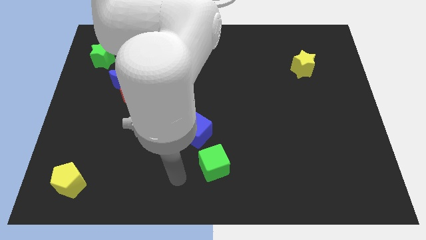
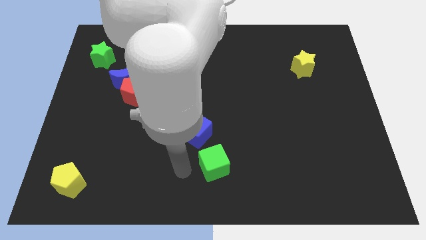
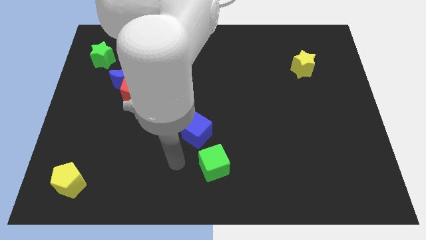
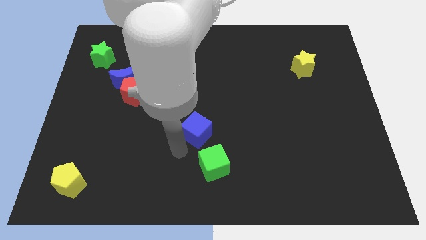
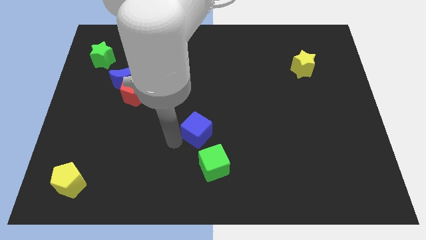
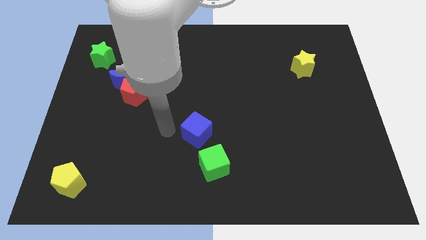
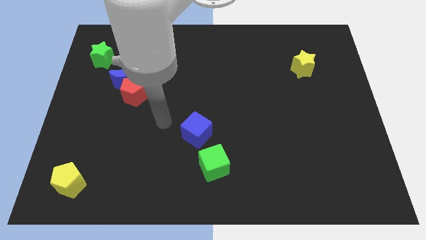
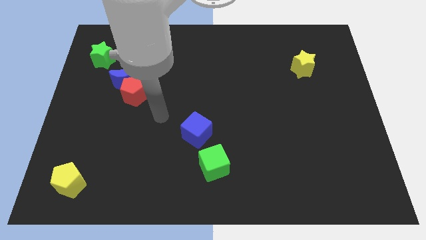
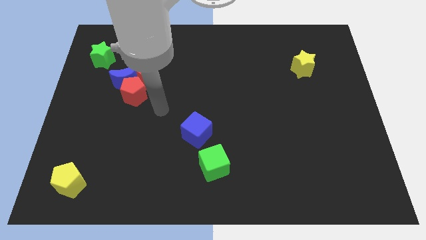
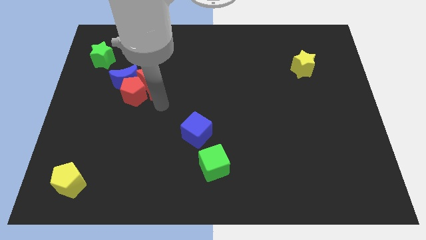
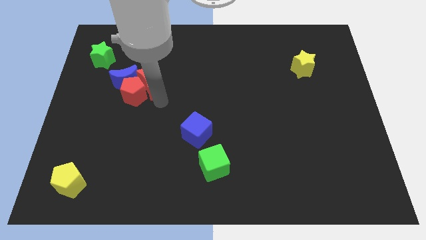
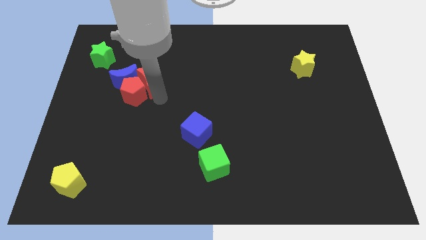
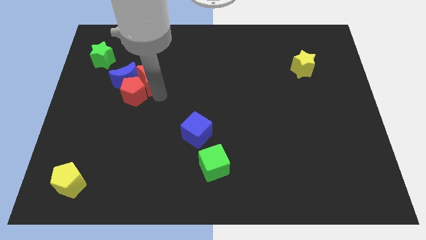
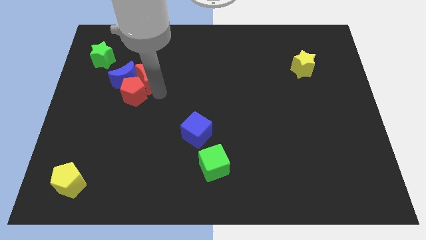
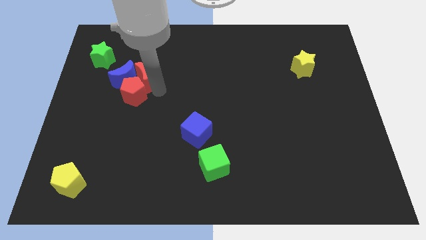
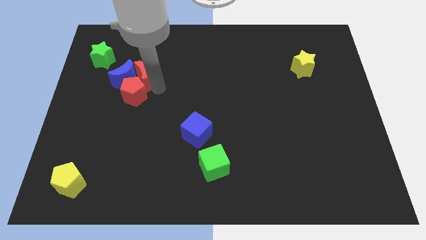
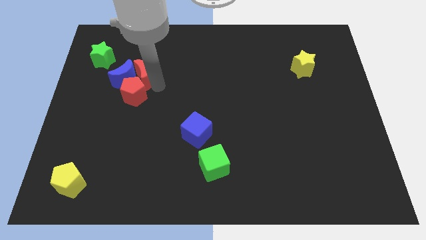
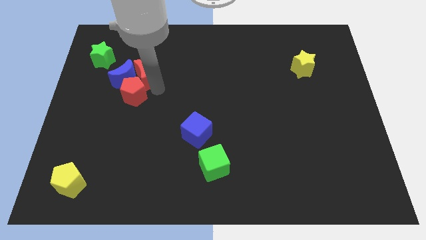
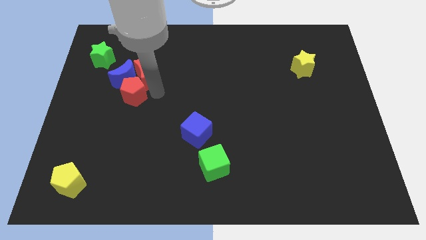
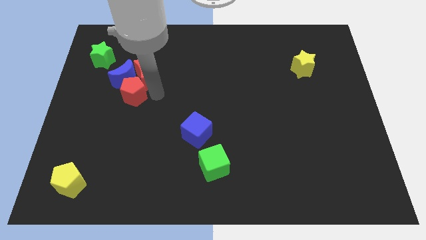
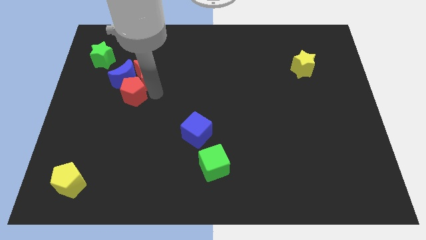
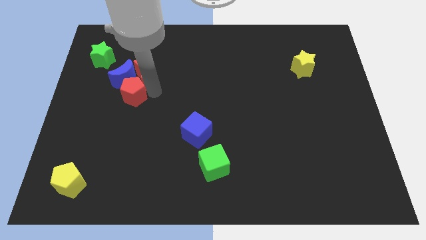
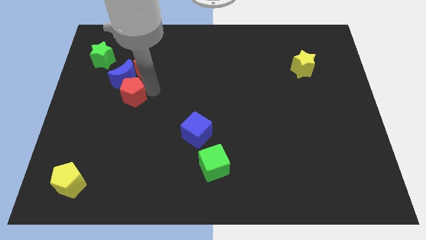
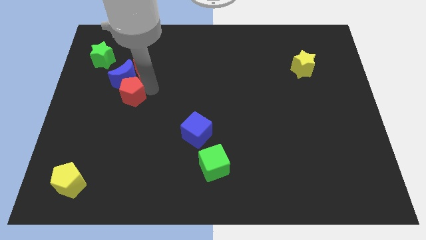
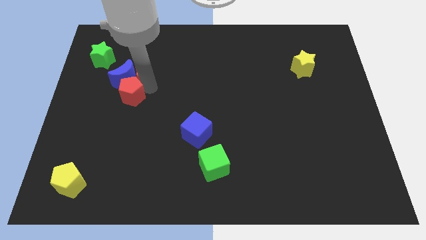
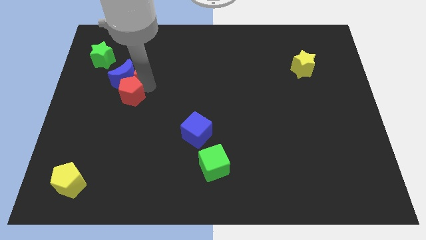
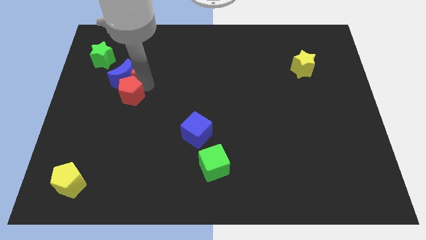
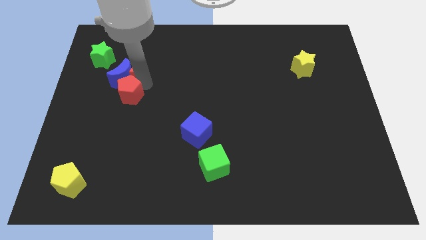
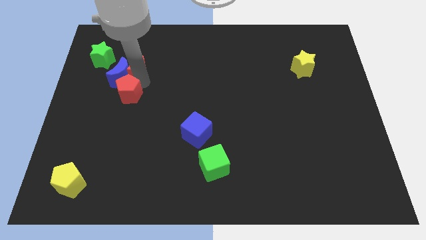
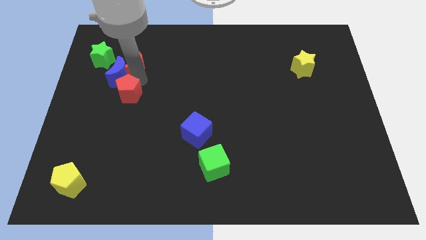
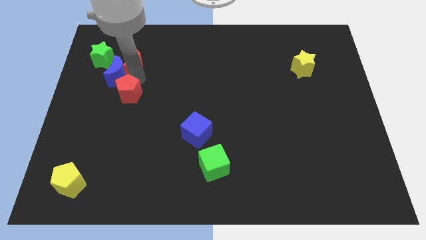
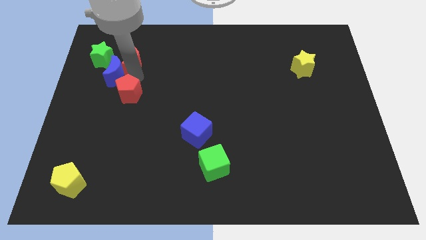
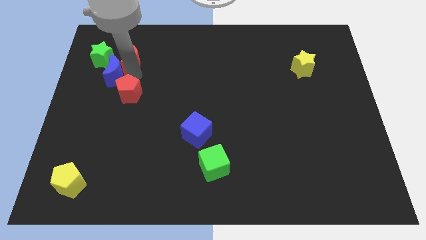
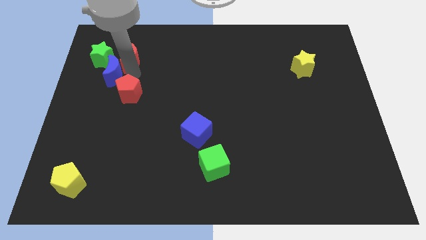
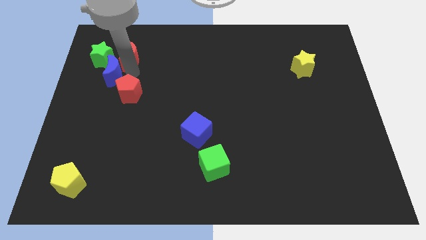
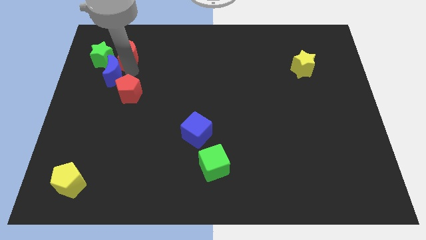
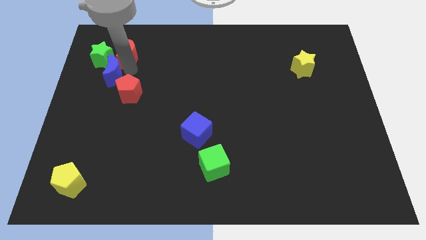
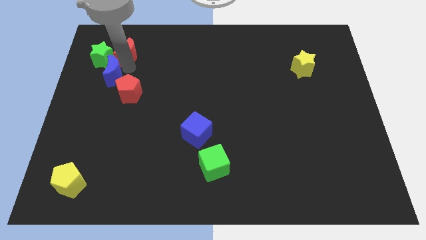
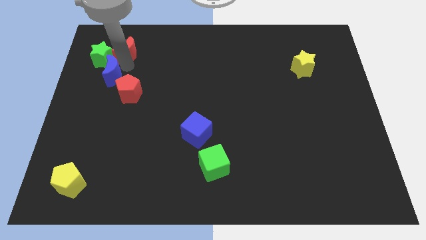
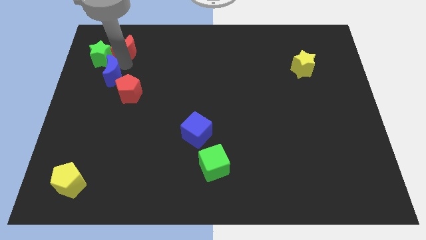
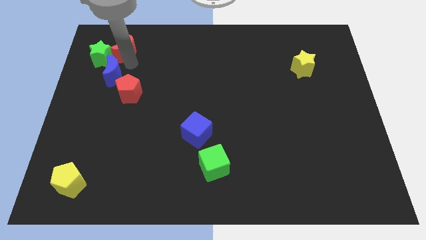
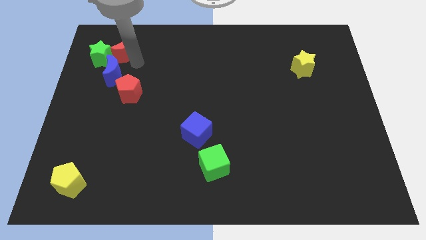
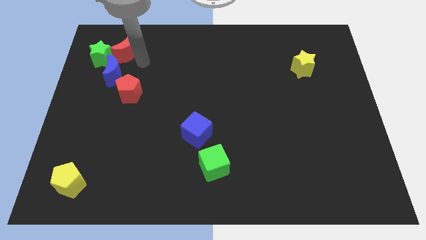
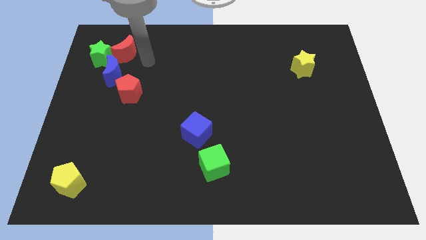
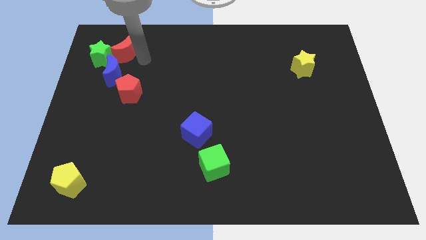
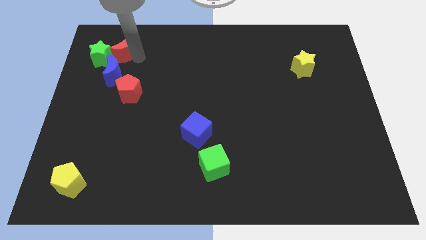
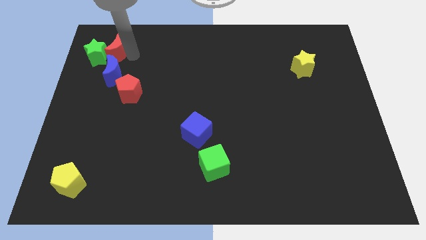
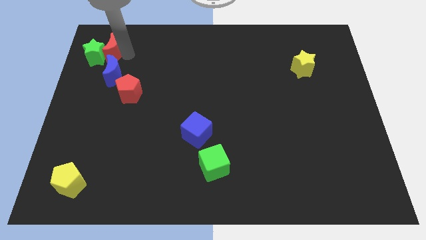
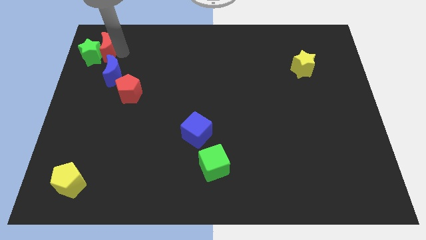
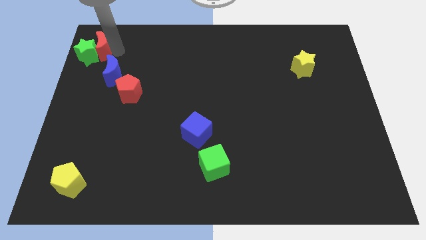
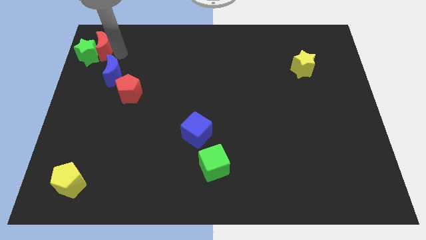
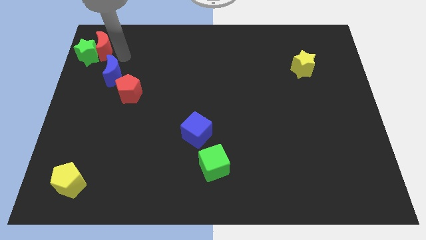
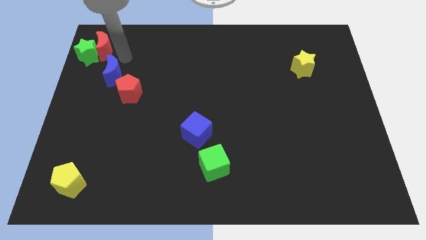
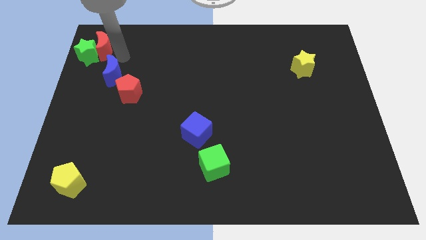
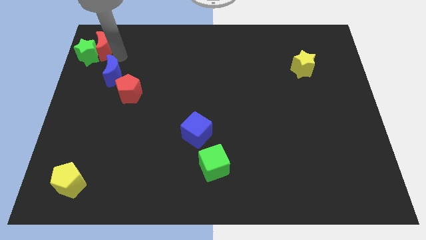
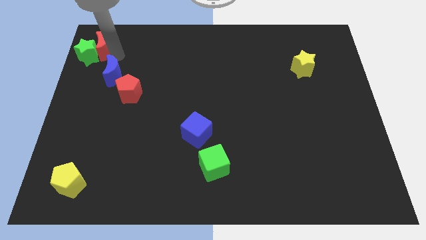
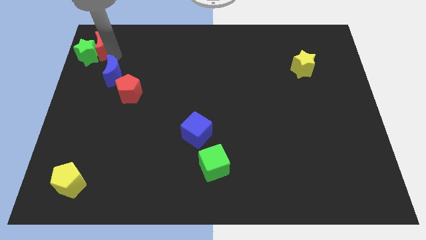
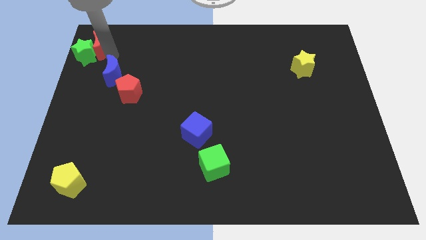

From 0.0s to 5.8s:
slide the red moon to the top left
